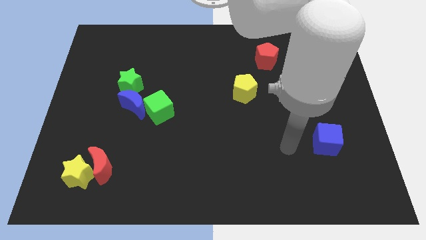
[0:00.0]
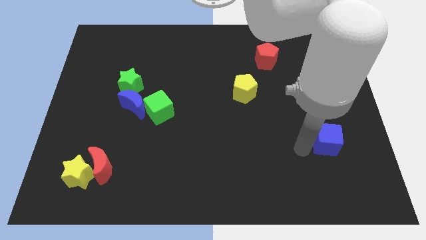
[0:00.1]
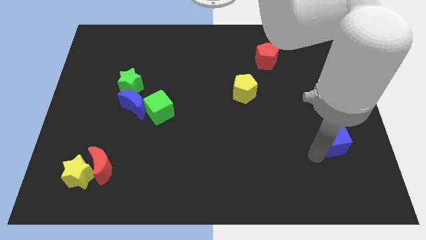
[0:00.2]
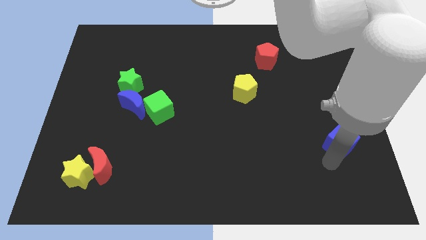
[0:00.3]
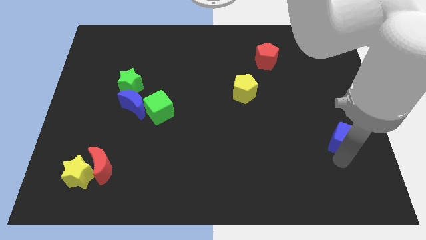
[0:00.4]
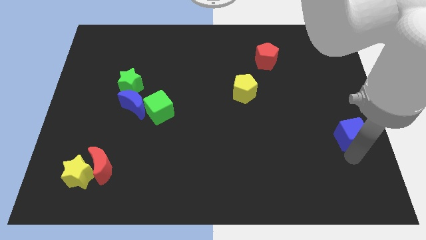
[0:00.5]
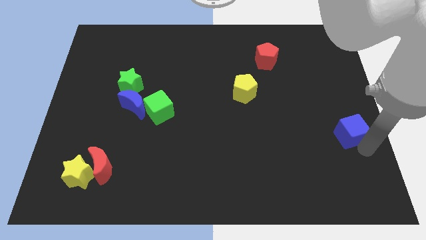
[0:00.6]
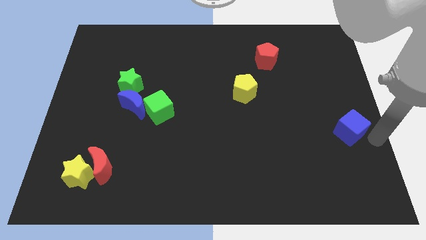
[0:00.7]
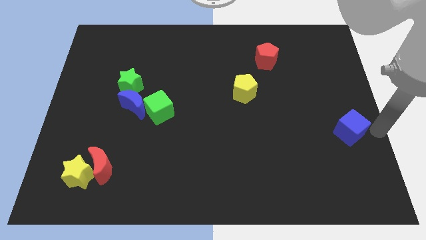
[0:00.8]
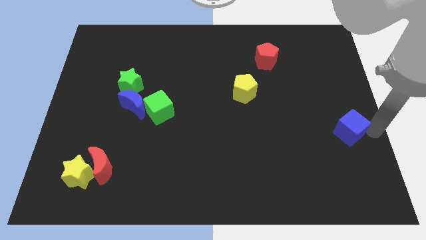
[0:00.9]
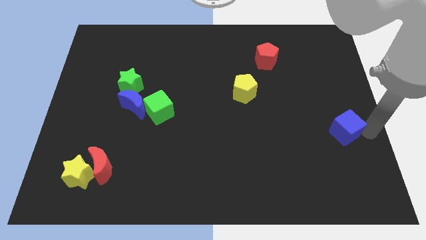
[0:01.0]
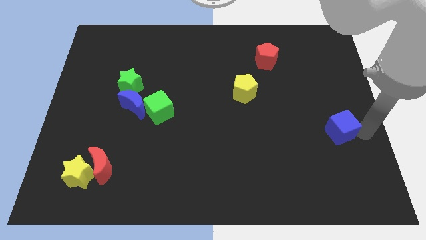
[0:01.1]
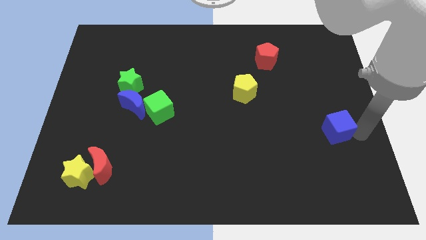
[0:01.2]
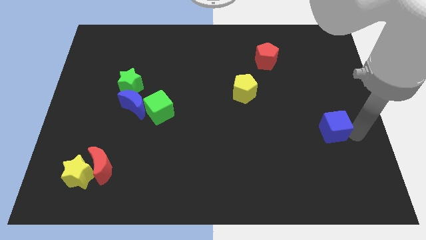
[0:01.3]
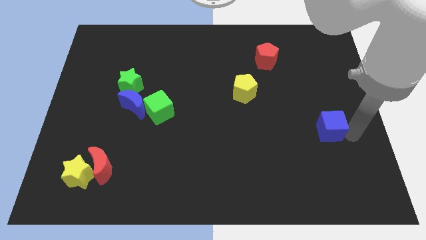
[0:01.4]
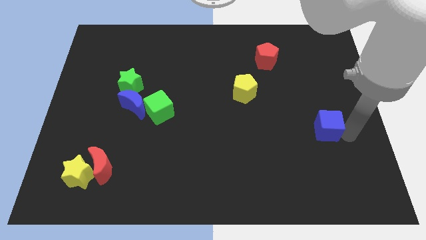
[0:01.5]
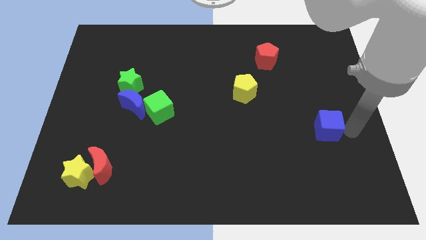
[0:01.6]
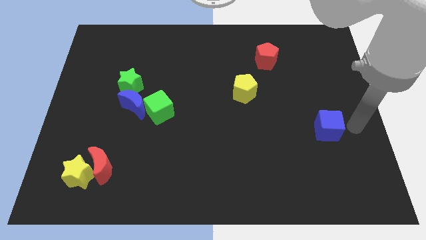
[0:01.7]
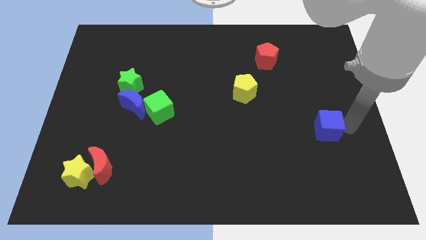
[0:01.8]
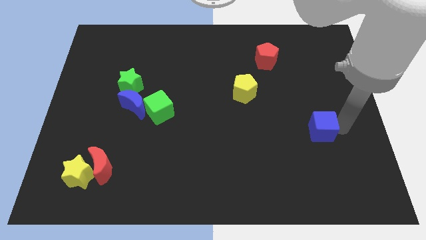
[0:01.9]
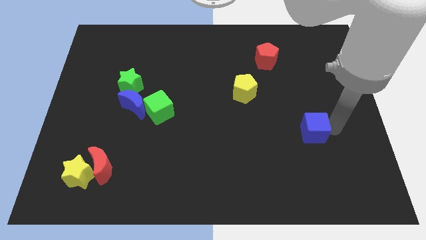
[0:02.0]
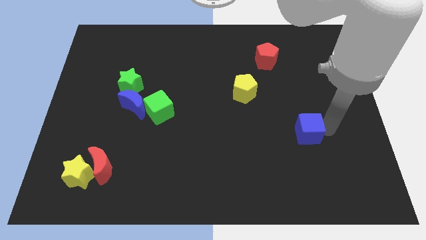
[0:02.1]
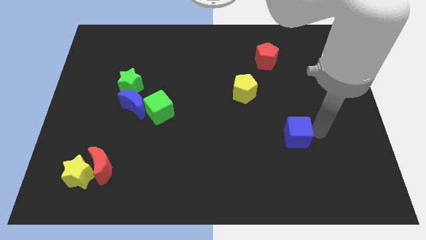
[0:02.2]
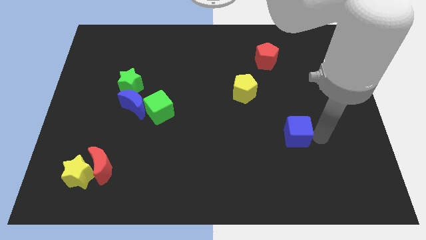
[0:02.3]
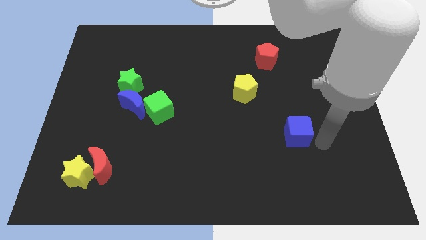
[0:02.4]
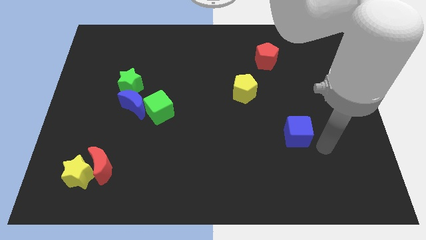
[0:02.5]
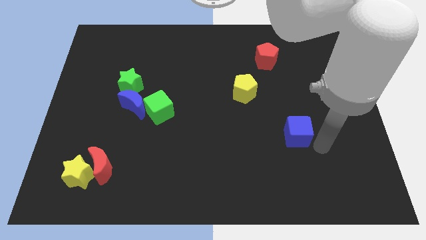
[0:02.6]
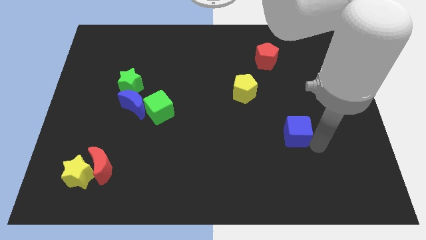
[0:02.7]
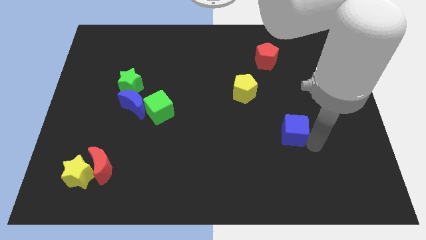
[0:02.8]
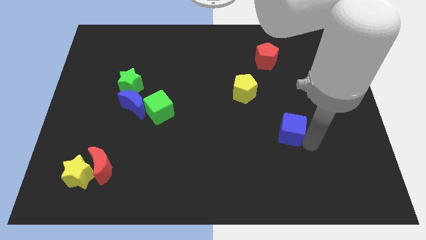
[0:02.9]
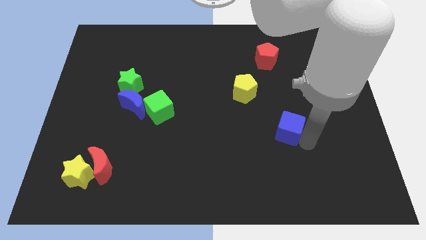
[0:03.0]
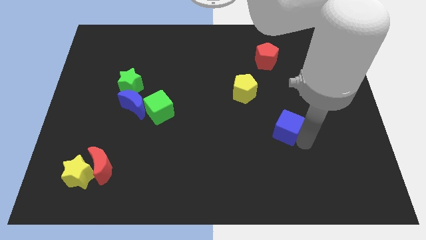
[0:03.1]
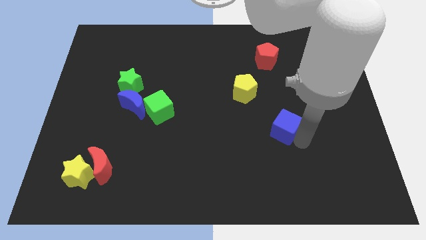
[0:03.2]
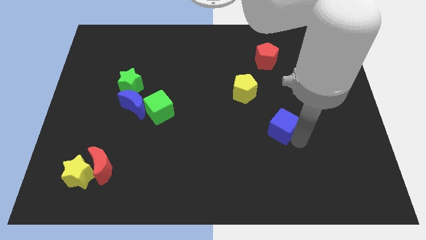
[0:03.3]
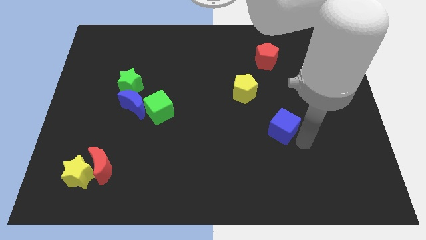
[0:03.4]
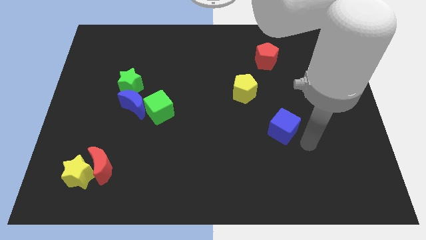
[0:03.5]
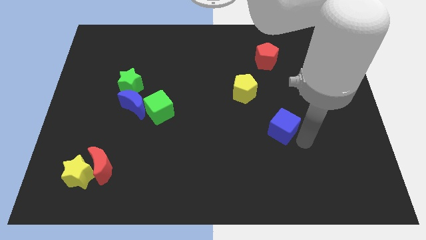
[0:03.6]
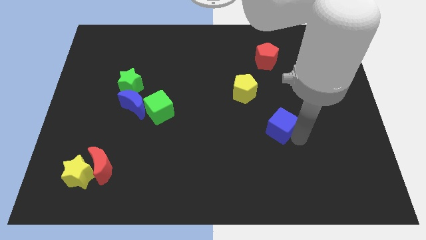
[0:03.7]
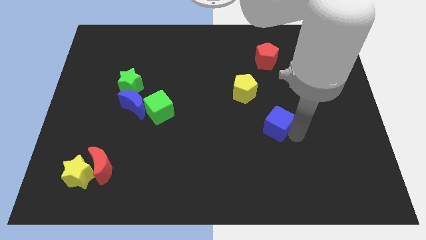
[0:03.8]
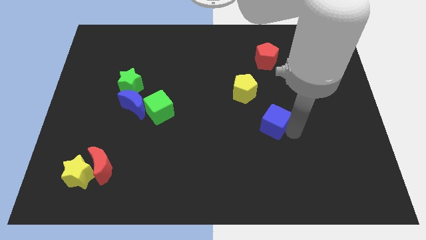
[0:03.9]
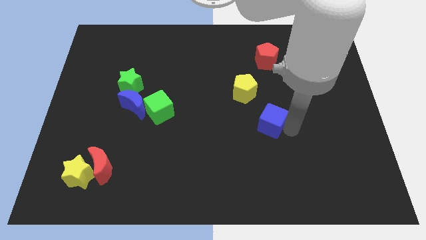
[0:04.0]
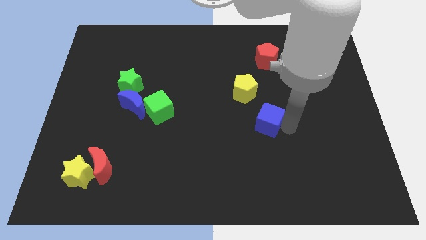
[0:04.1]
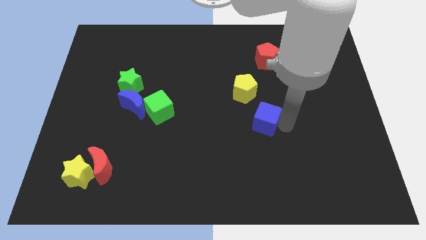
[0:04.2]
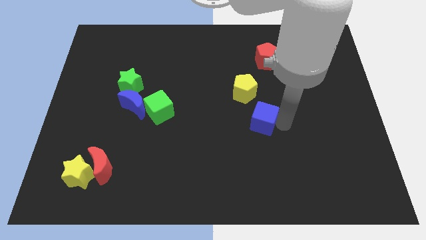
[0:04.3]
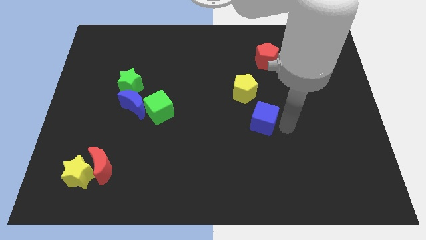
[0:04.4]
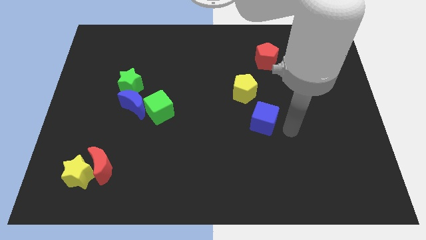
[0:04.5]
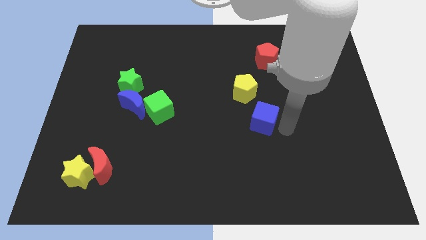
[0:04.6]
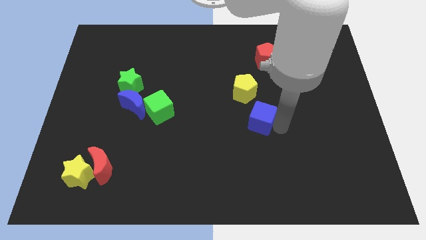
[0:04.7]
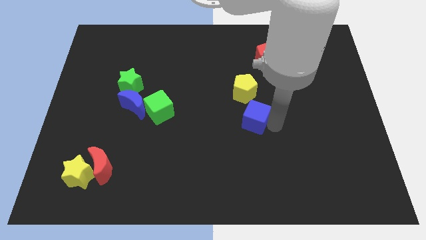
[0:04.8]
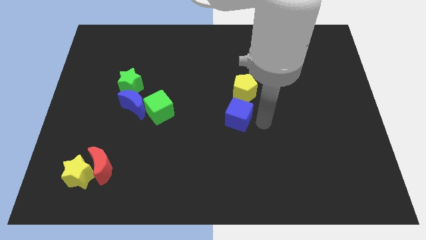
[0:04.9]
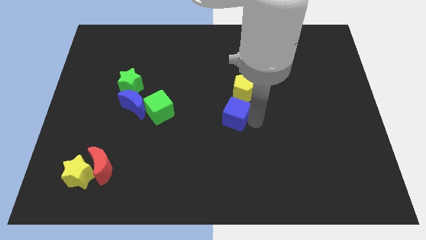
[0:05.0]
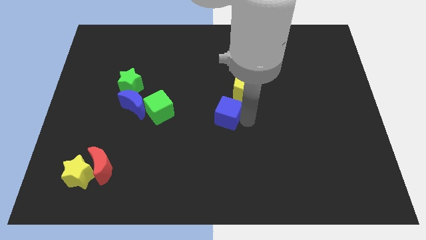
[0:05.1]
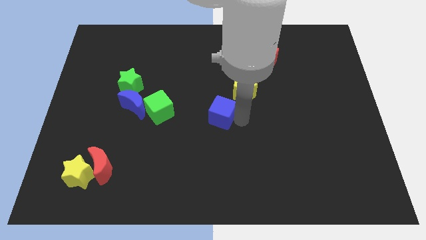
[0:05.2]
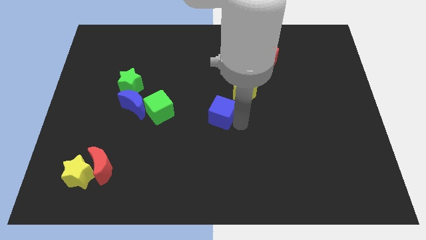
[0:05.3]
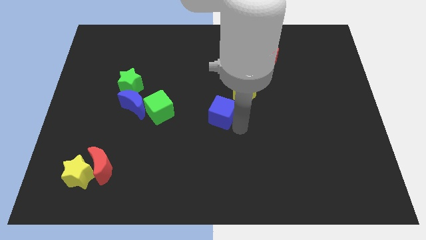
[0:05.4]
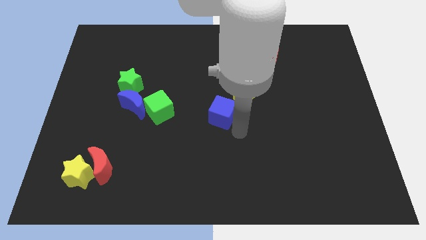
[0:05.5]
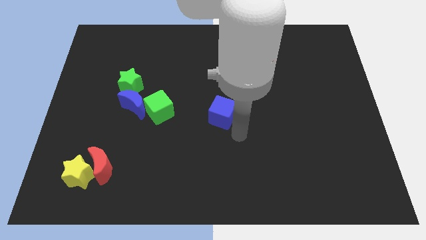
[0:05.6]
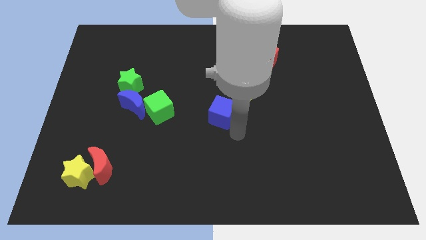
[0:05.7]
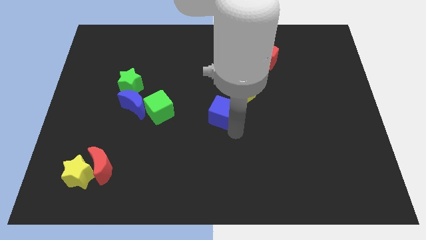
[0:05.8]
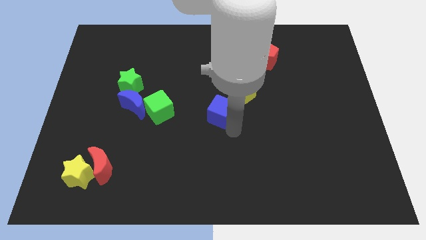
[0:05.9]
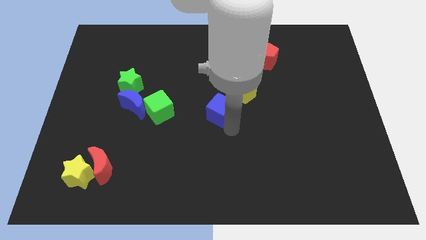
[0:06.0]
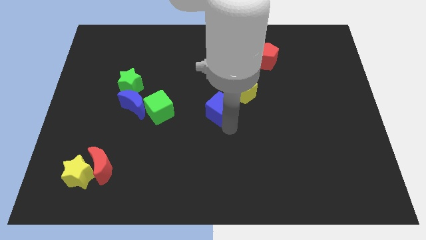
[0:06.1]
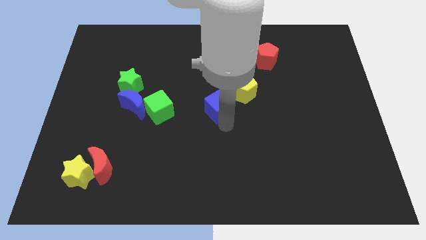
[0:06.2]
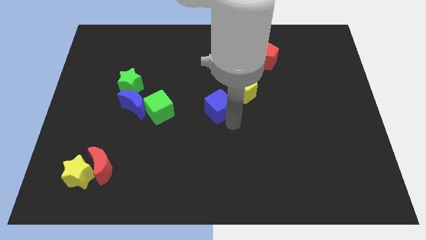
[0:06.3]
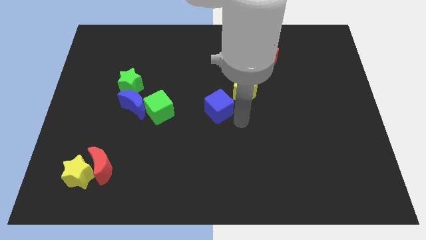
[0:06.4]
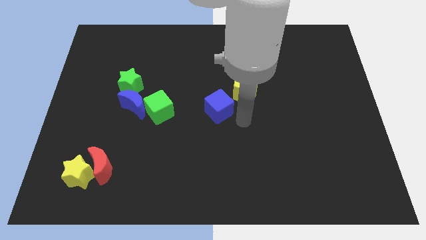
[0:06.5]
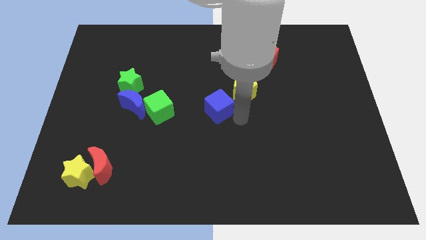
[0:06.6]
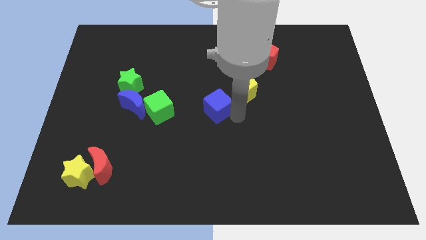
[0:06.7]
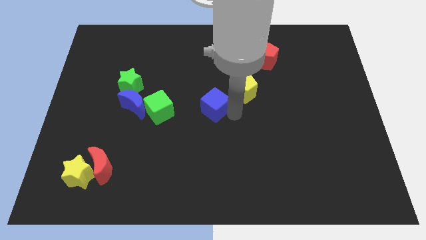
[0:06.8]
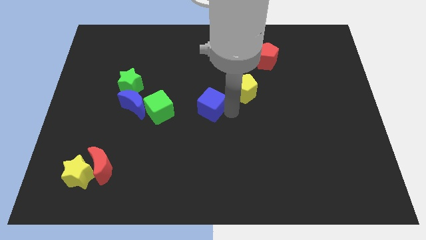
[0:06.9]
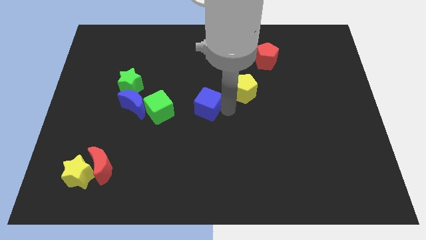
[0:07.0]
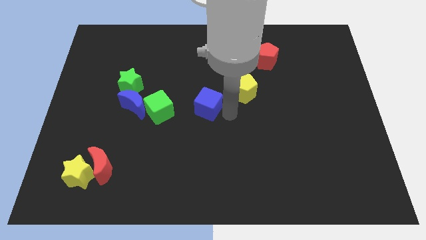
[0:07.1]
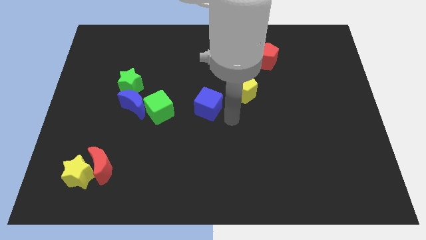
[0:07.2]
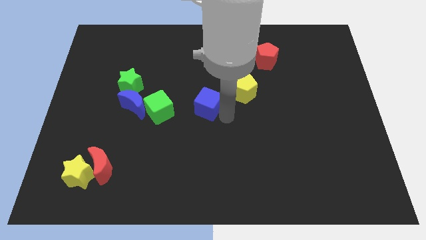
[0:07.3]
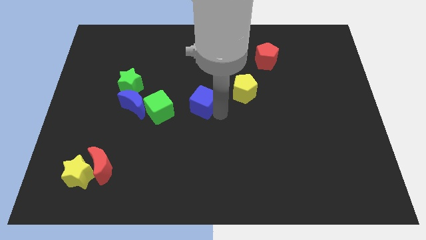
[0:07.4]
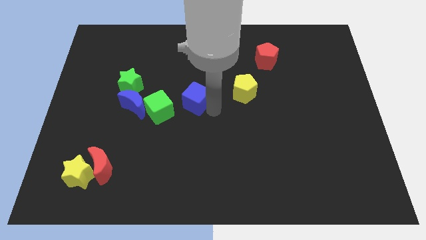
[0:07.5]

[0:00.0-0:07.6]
slide the blue cube to the top right of the green cube
